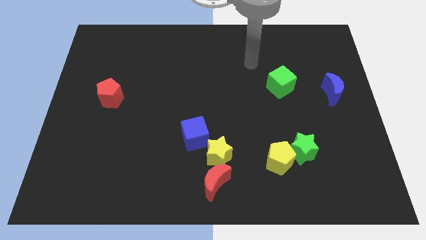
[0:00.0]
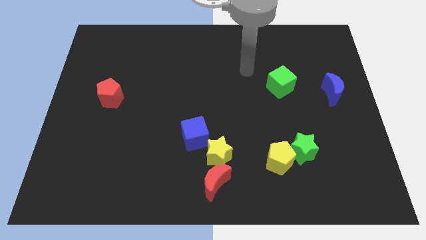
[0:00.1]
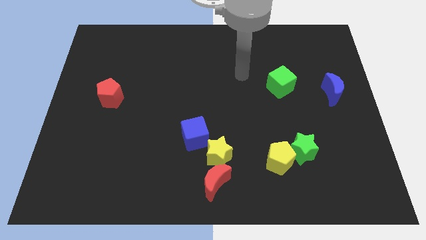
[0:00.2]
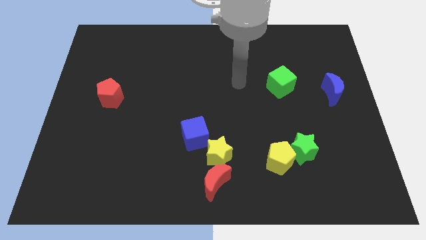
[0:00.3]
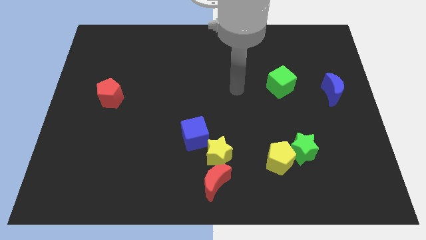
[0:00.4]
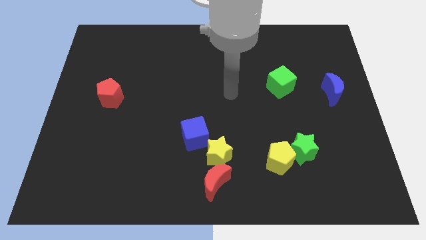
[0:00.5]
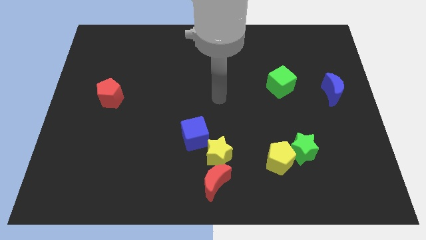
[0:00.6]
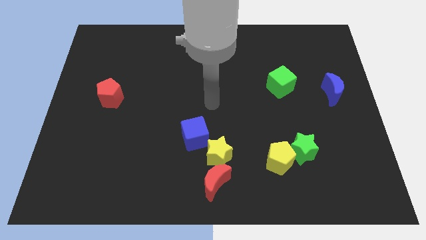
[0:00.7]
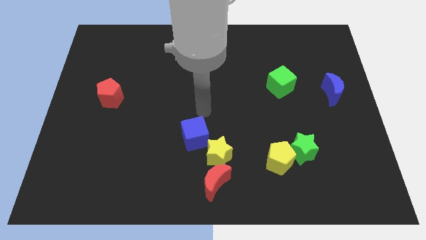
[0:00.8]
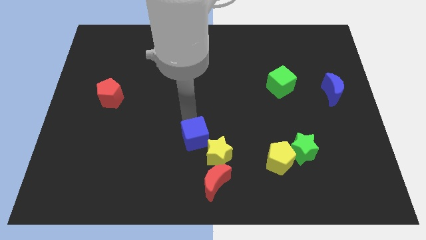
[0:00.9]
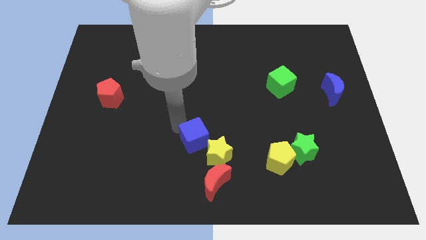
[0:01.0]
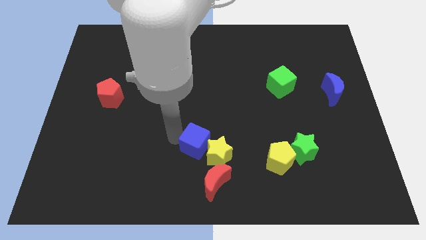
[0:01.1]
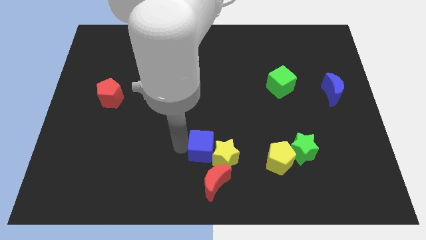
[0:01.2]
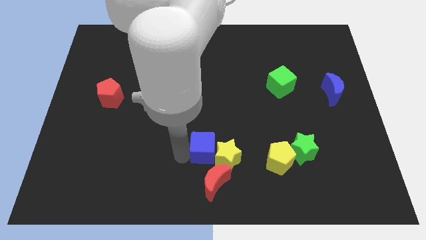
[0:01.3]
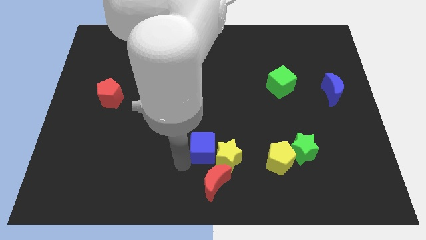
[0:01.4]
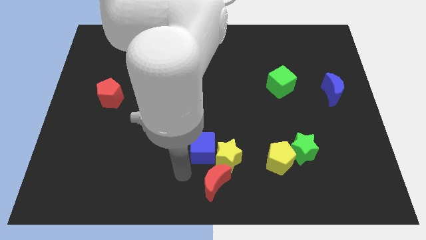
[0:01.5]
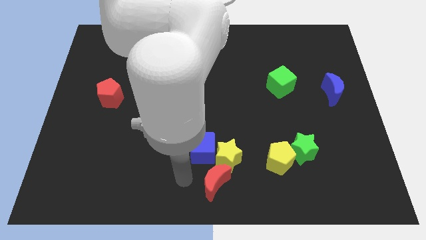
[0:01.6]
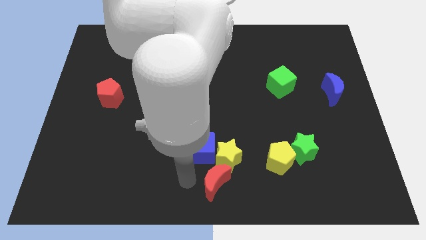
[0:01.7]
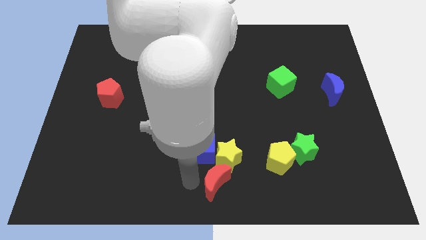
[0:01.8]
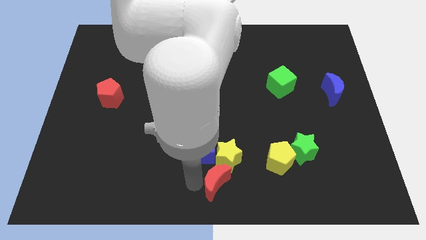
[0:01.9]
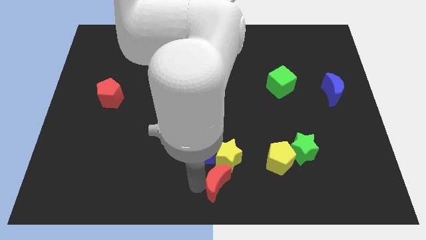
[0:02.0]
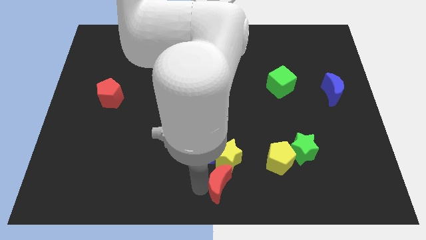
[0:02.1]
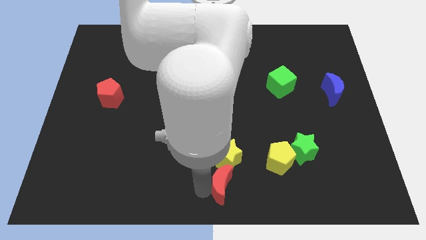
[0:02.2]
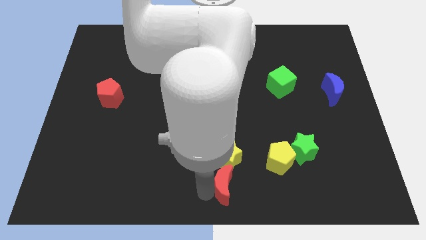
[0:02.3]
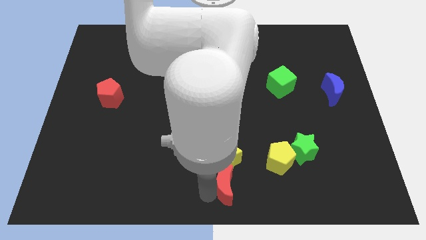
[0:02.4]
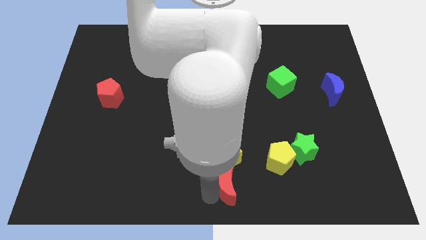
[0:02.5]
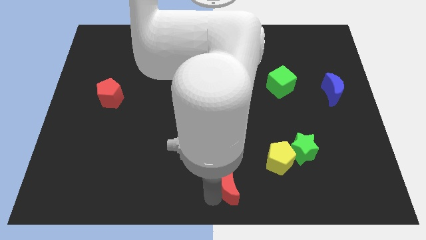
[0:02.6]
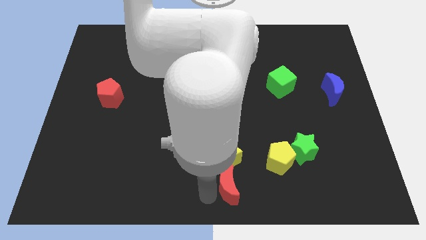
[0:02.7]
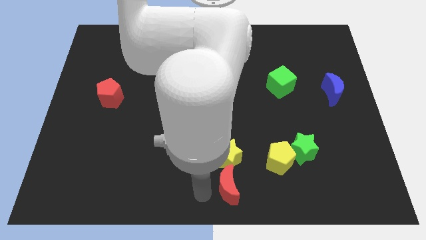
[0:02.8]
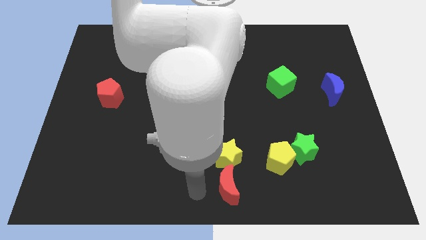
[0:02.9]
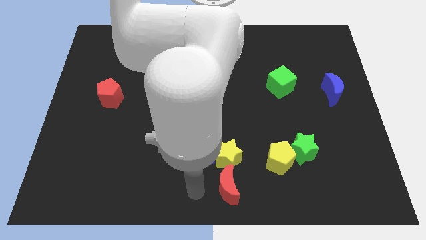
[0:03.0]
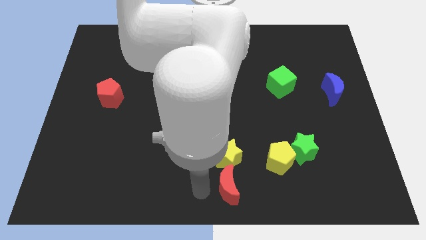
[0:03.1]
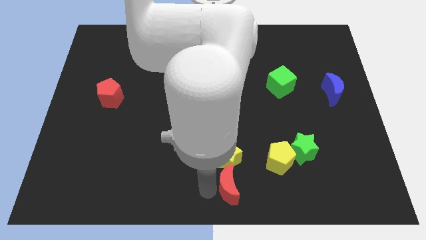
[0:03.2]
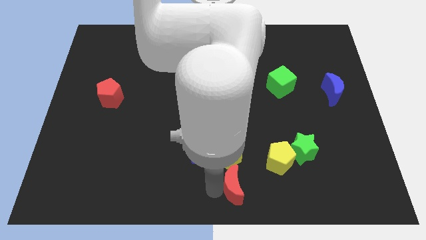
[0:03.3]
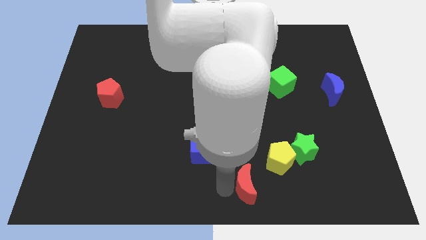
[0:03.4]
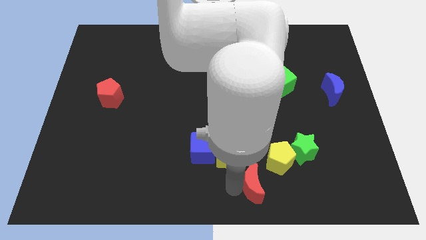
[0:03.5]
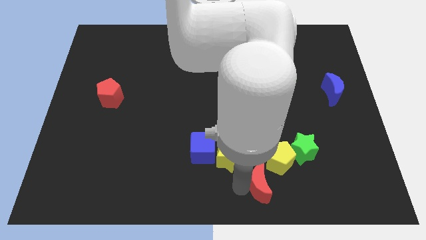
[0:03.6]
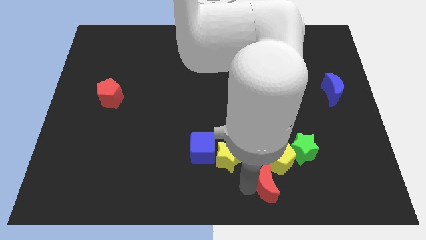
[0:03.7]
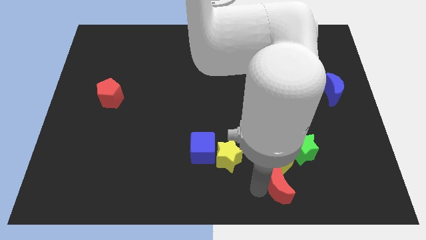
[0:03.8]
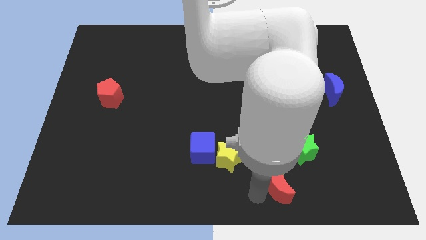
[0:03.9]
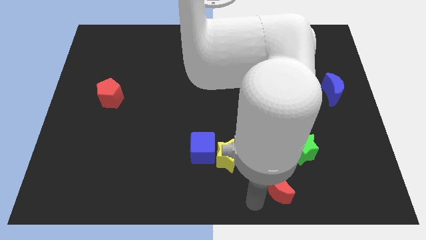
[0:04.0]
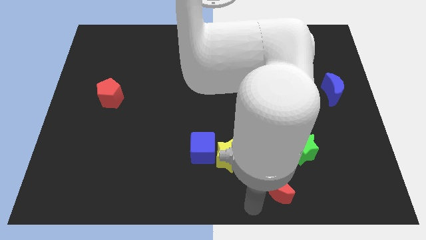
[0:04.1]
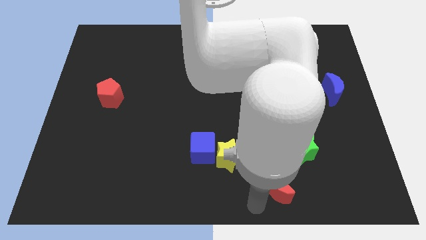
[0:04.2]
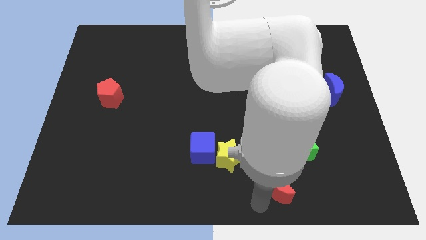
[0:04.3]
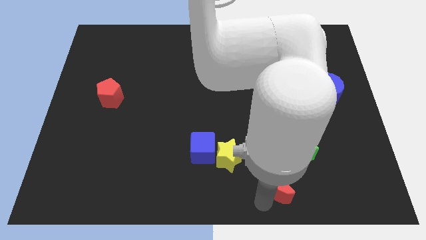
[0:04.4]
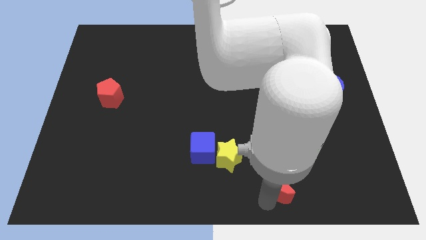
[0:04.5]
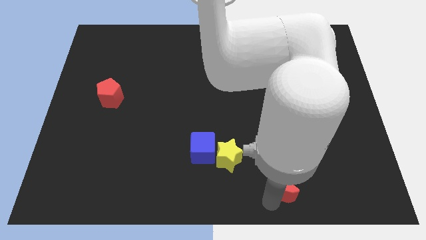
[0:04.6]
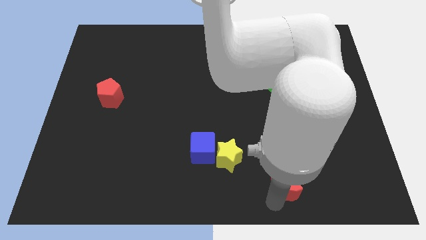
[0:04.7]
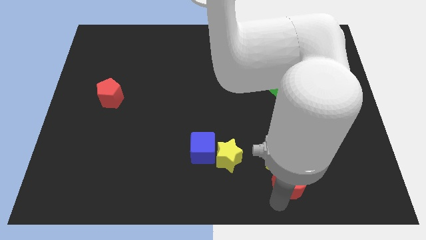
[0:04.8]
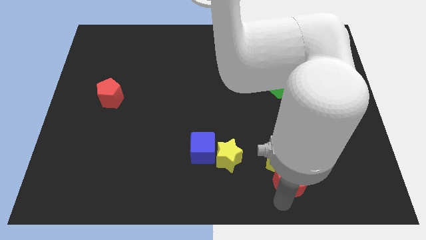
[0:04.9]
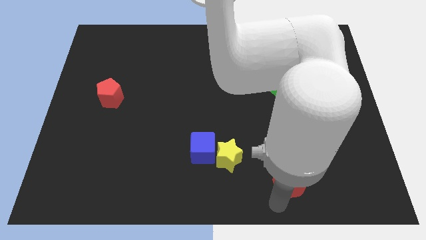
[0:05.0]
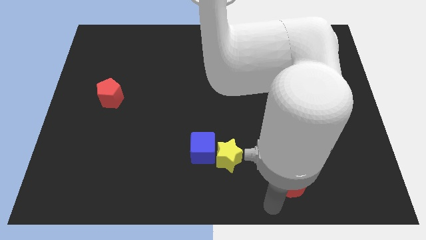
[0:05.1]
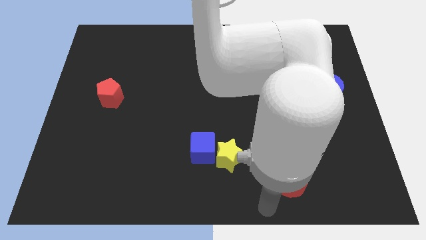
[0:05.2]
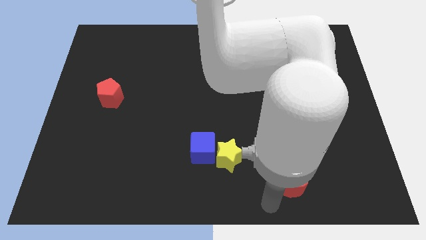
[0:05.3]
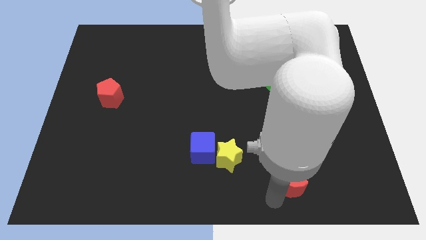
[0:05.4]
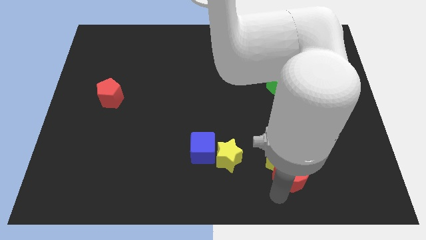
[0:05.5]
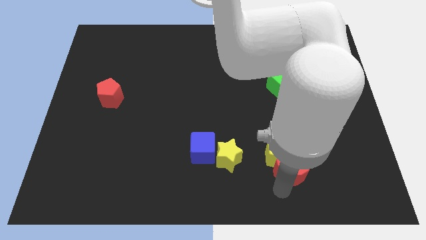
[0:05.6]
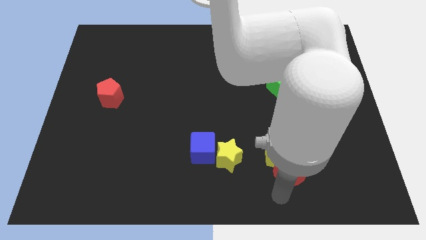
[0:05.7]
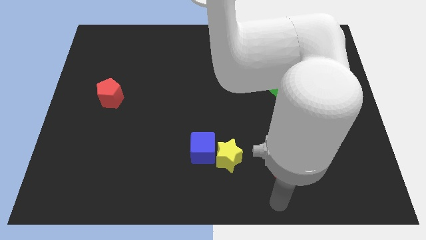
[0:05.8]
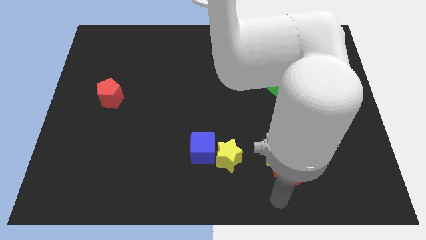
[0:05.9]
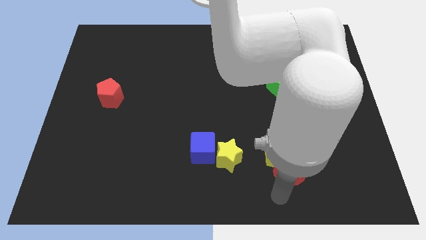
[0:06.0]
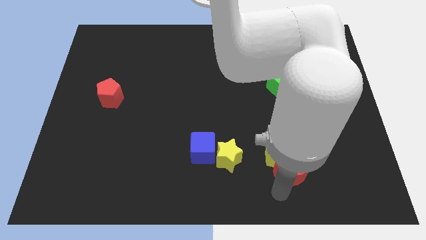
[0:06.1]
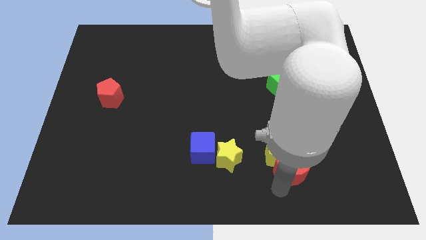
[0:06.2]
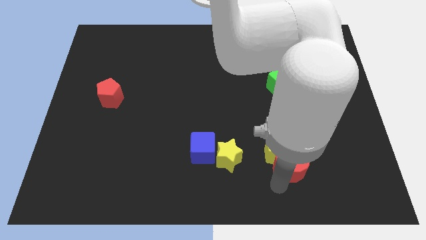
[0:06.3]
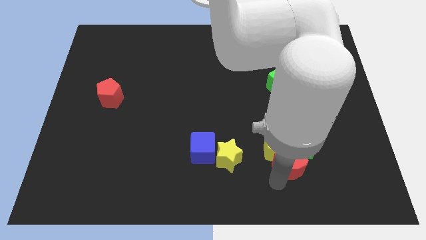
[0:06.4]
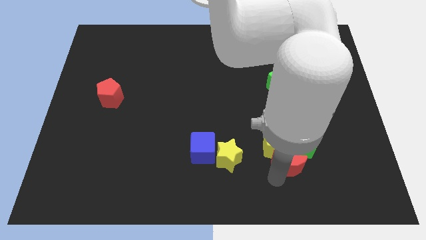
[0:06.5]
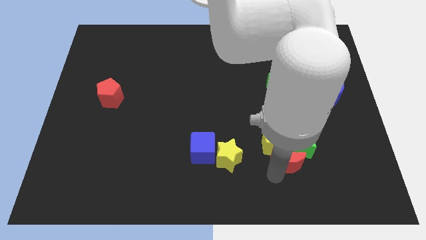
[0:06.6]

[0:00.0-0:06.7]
put the red moon next to the green star

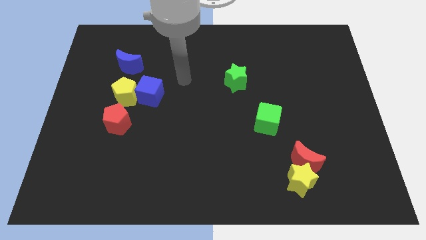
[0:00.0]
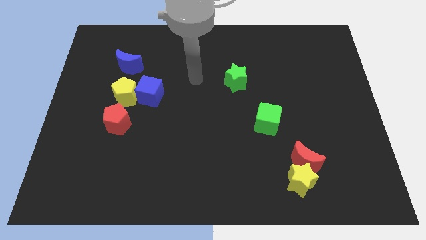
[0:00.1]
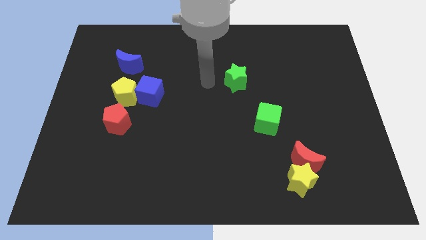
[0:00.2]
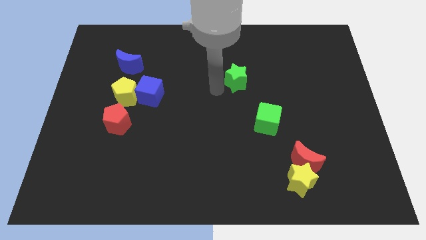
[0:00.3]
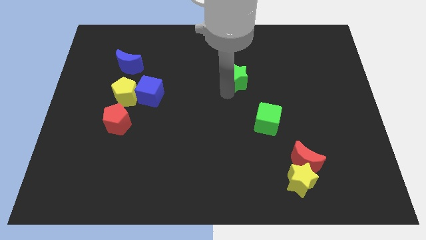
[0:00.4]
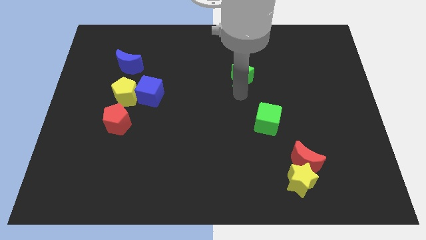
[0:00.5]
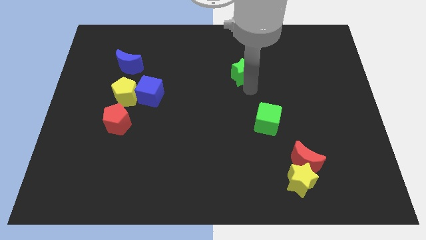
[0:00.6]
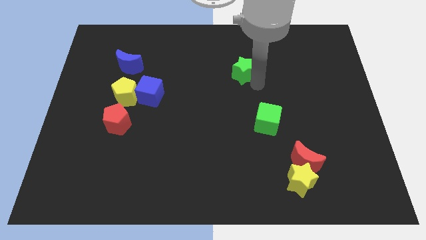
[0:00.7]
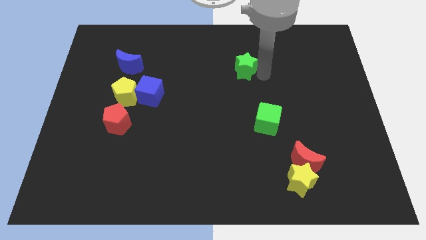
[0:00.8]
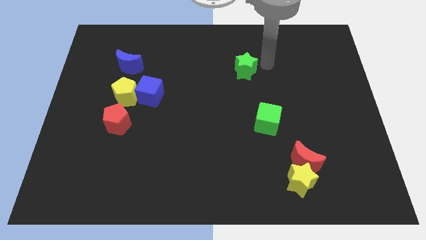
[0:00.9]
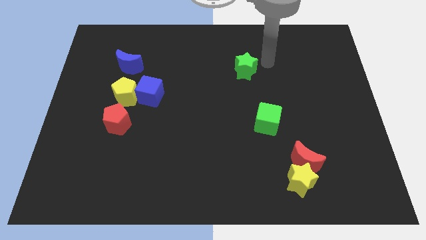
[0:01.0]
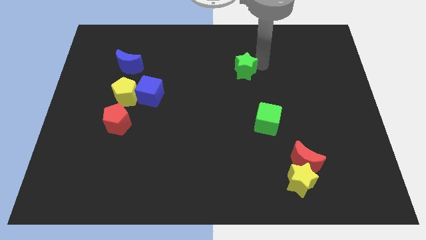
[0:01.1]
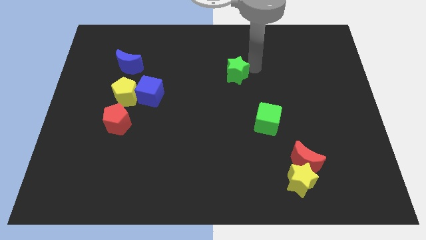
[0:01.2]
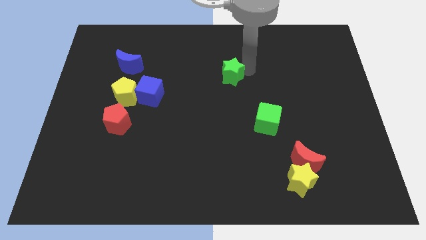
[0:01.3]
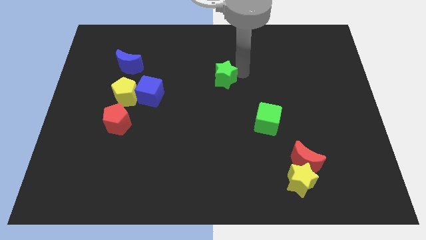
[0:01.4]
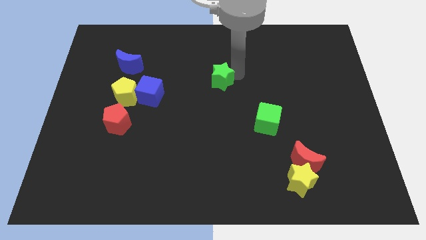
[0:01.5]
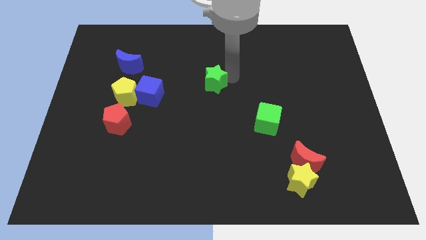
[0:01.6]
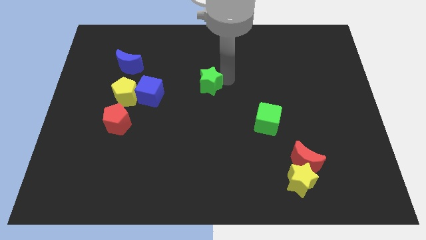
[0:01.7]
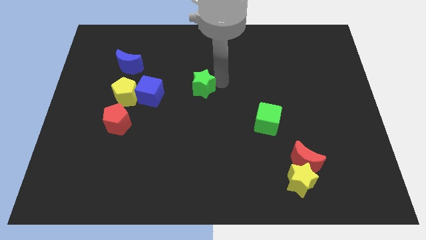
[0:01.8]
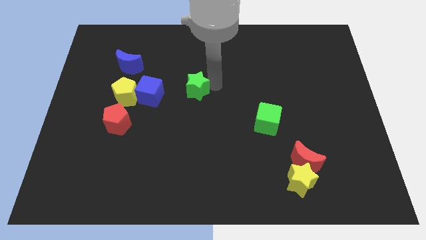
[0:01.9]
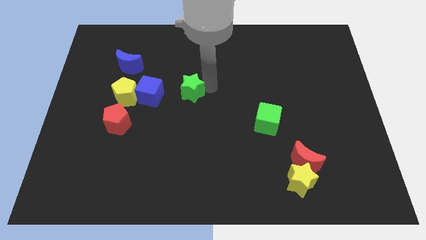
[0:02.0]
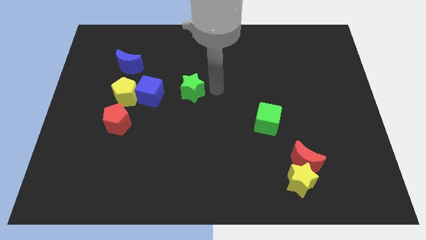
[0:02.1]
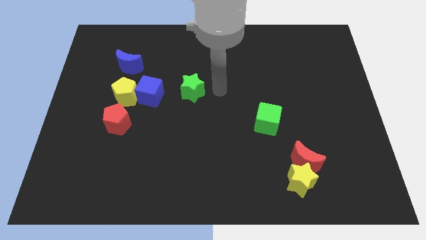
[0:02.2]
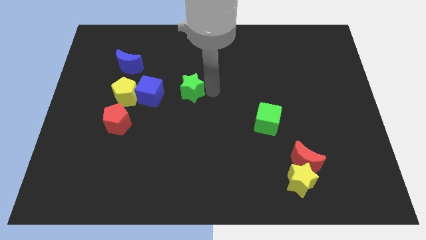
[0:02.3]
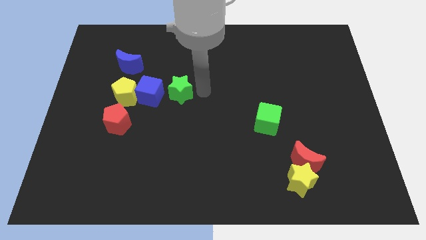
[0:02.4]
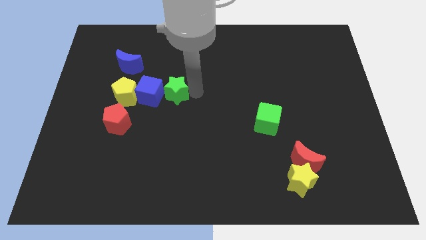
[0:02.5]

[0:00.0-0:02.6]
put the green star to the blue cube
